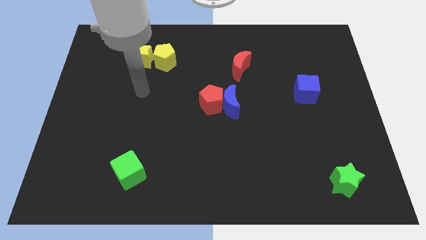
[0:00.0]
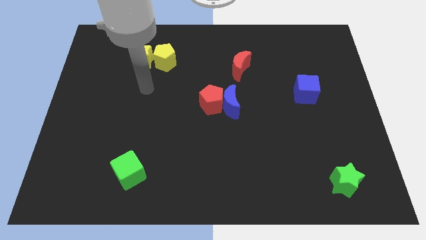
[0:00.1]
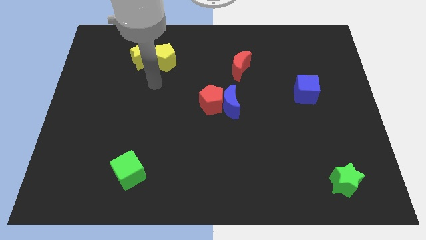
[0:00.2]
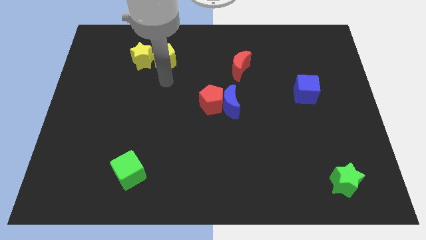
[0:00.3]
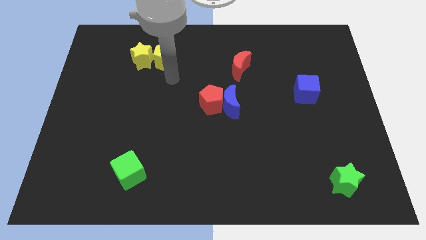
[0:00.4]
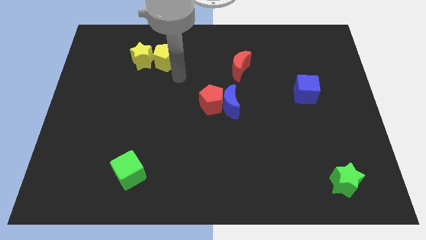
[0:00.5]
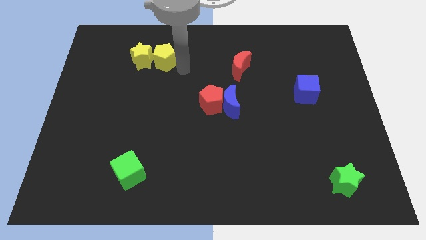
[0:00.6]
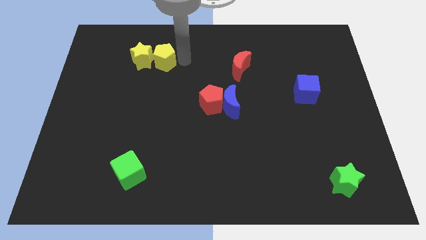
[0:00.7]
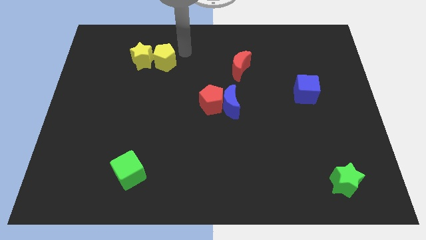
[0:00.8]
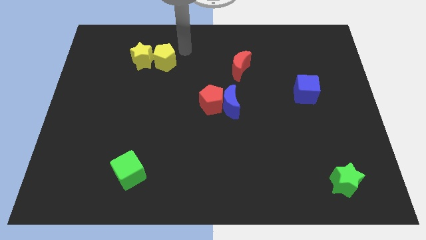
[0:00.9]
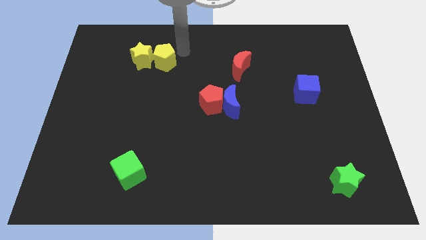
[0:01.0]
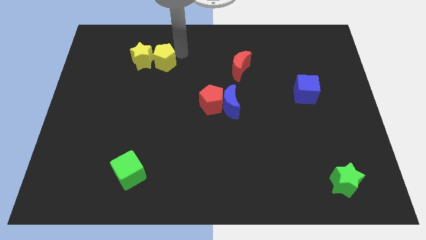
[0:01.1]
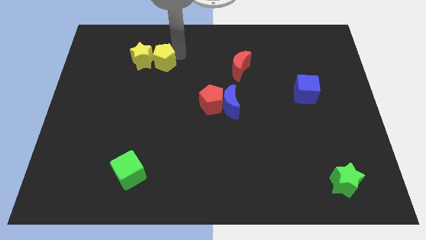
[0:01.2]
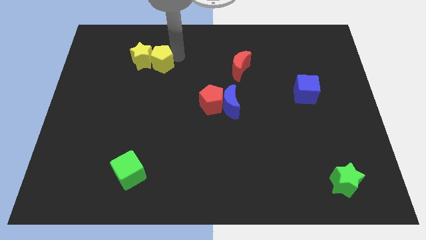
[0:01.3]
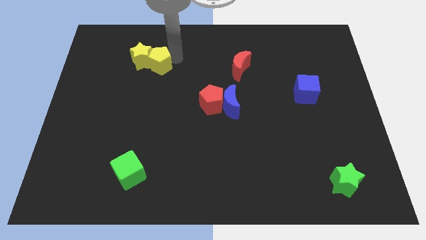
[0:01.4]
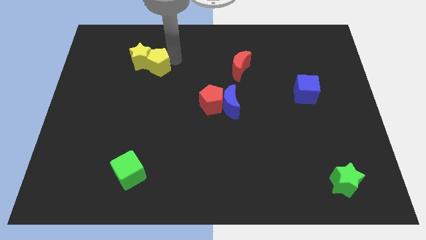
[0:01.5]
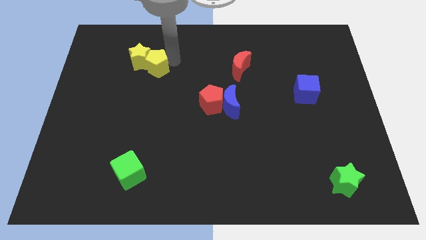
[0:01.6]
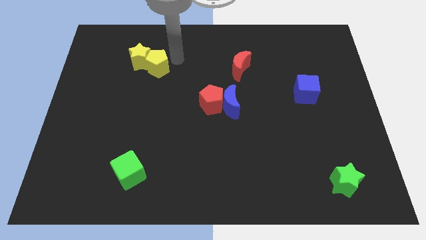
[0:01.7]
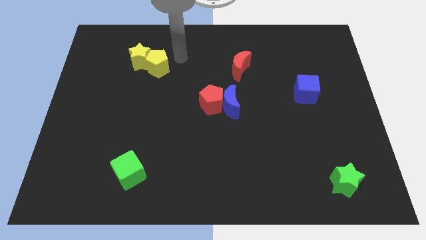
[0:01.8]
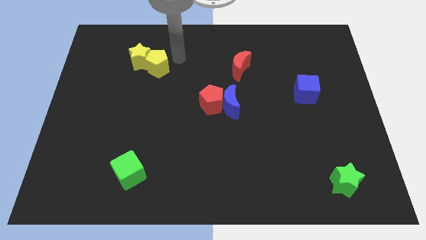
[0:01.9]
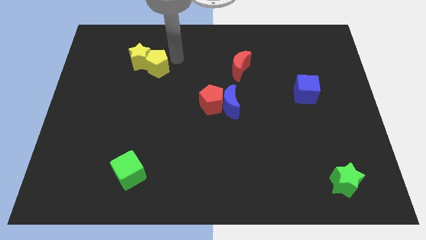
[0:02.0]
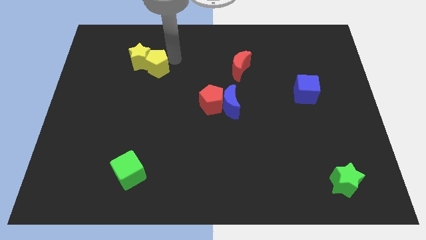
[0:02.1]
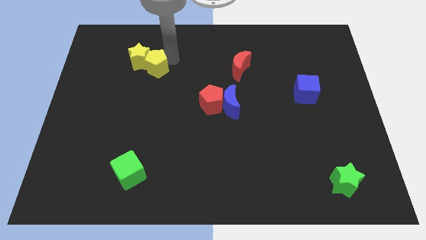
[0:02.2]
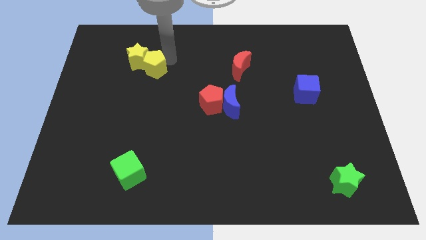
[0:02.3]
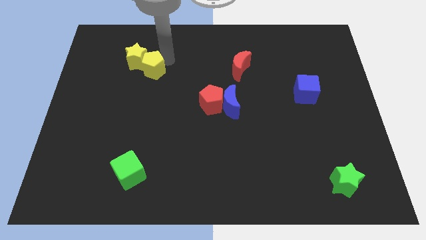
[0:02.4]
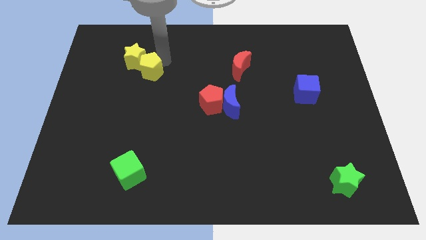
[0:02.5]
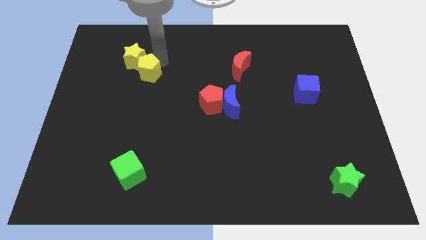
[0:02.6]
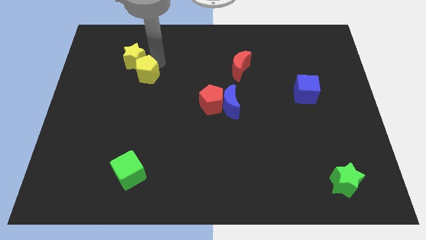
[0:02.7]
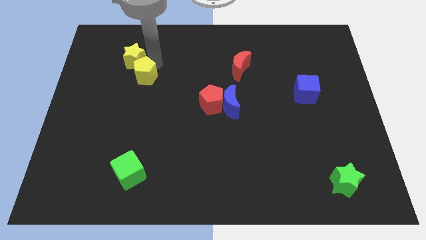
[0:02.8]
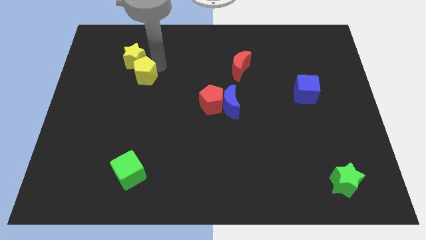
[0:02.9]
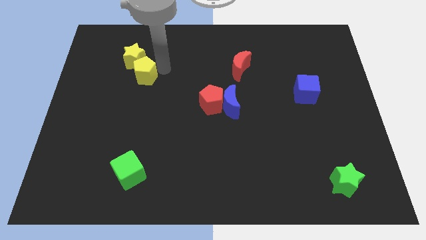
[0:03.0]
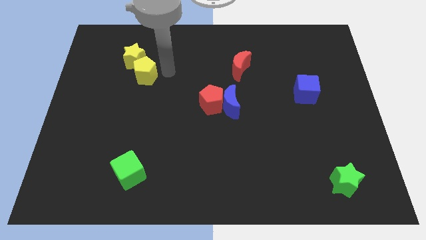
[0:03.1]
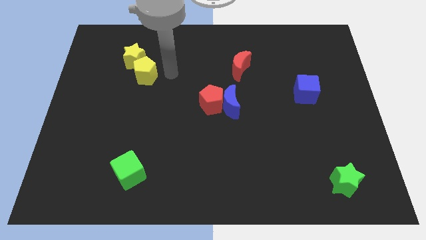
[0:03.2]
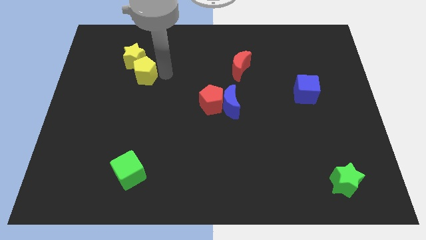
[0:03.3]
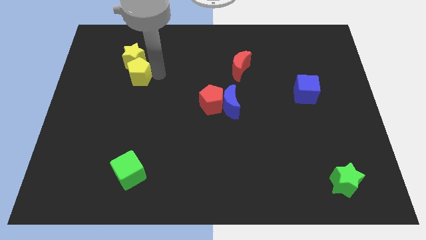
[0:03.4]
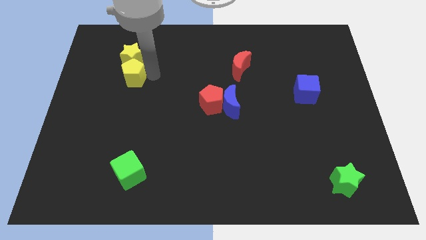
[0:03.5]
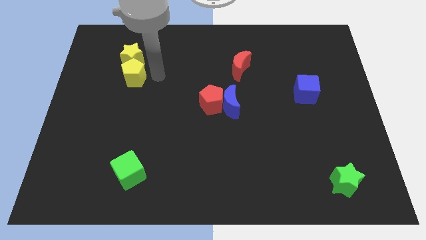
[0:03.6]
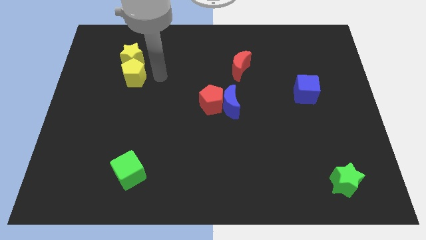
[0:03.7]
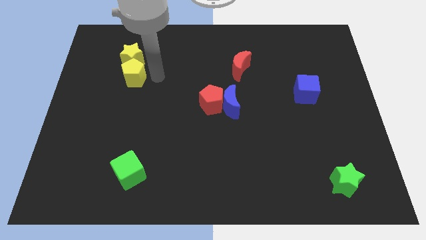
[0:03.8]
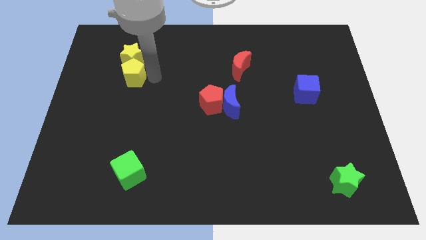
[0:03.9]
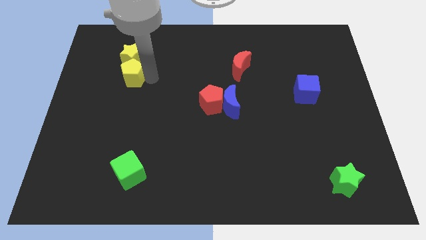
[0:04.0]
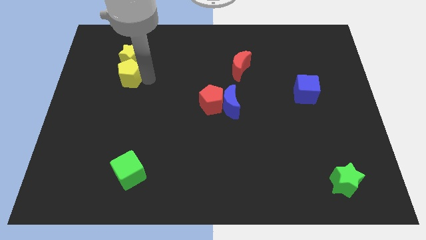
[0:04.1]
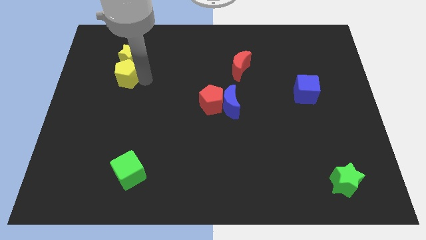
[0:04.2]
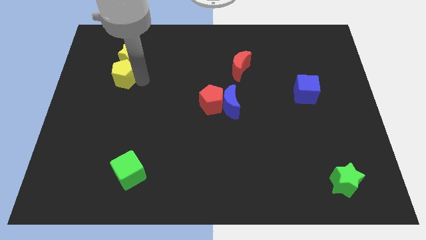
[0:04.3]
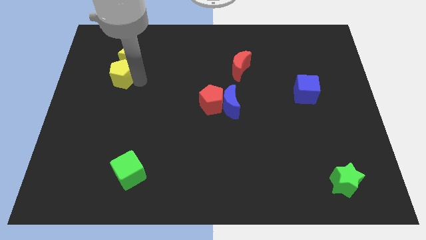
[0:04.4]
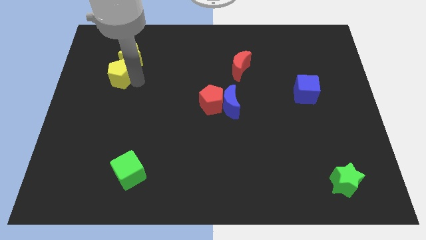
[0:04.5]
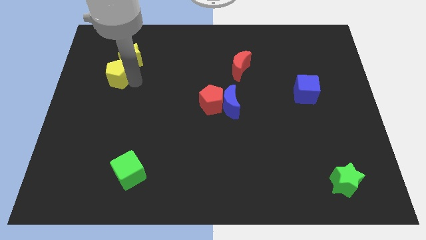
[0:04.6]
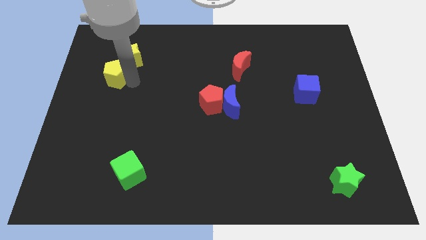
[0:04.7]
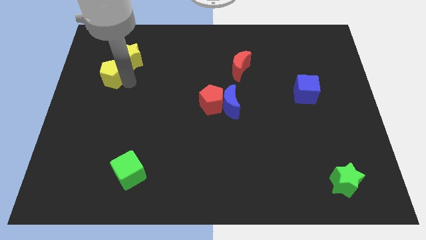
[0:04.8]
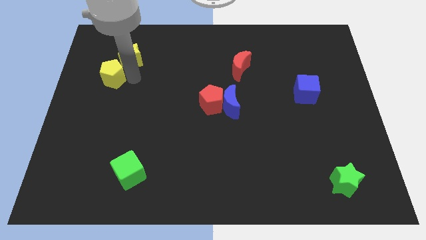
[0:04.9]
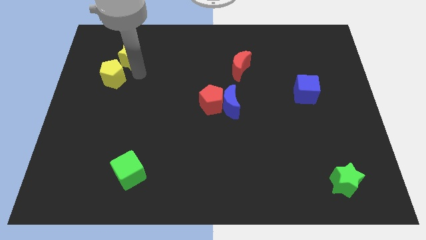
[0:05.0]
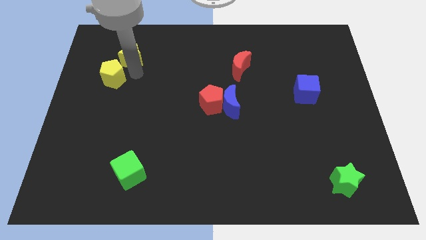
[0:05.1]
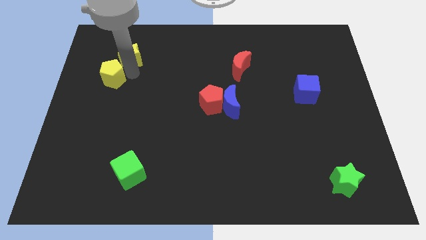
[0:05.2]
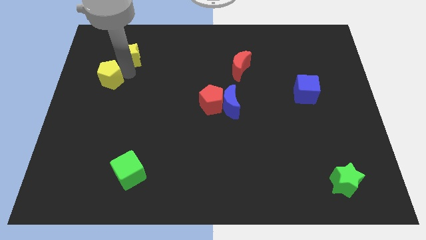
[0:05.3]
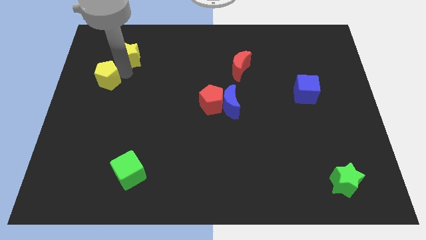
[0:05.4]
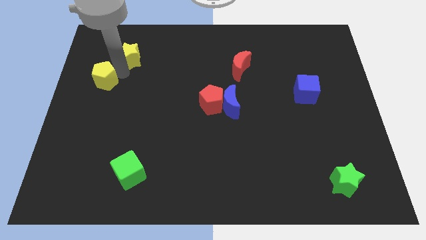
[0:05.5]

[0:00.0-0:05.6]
put the yellow pentagon to the left side
